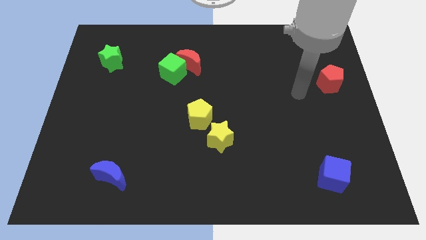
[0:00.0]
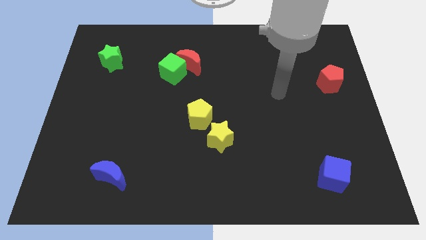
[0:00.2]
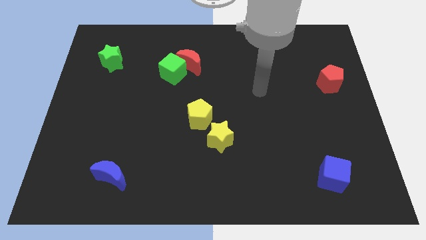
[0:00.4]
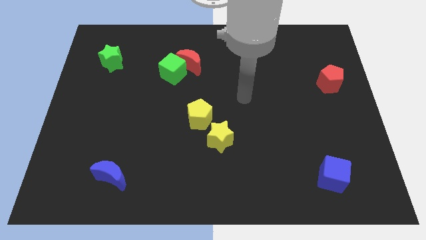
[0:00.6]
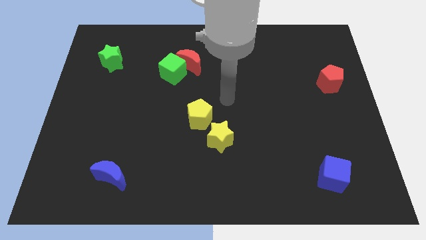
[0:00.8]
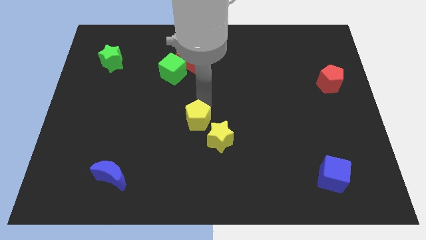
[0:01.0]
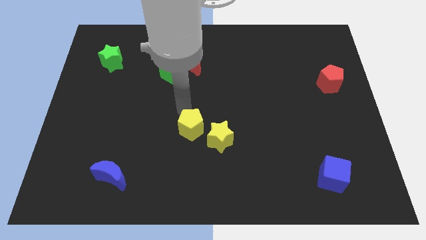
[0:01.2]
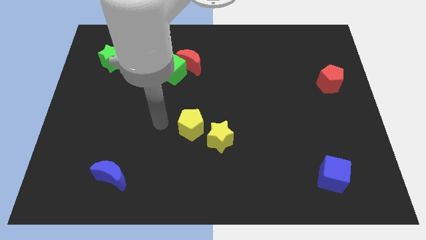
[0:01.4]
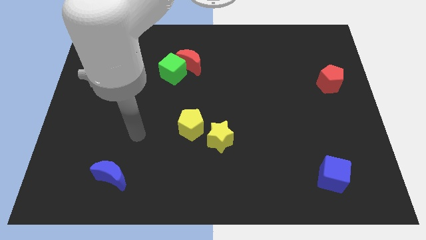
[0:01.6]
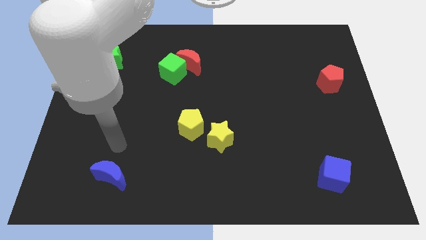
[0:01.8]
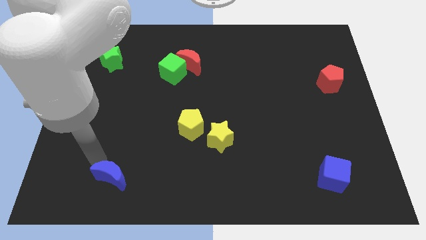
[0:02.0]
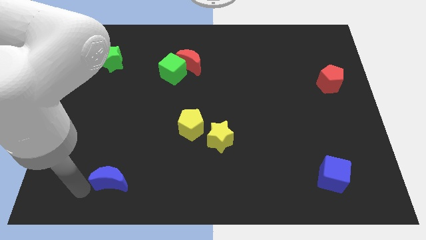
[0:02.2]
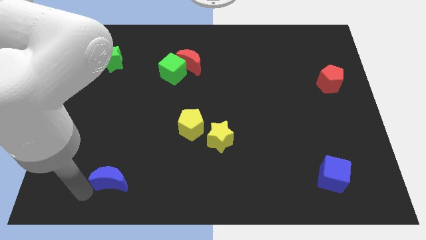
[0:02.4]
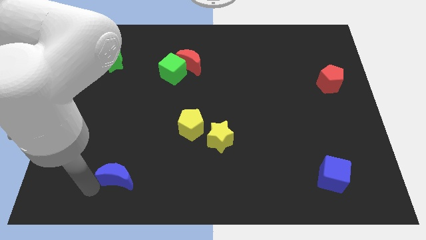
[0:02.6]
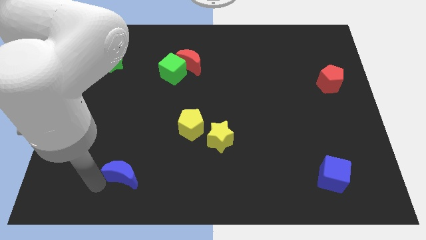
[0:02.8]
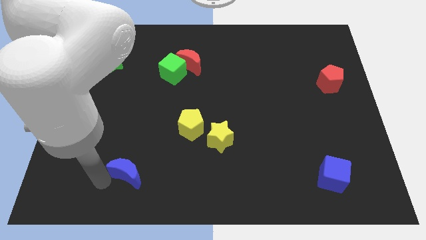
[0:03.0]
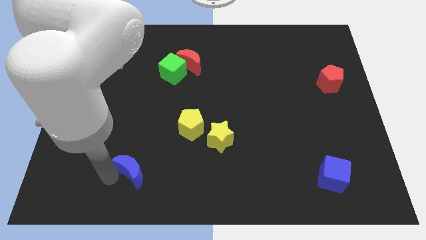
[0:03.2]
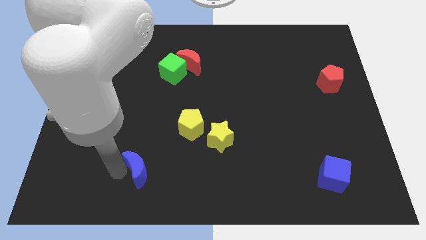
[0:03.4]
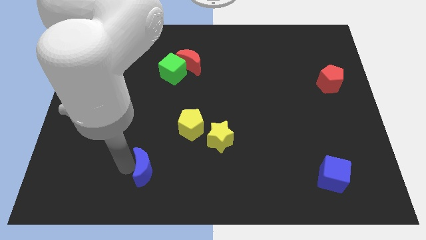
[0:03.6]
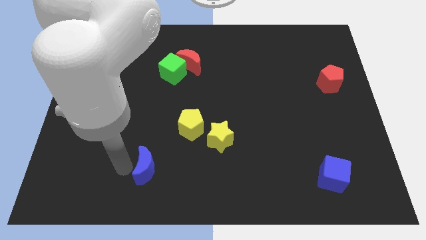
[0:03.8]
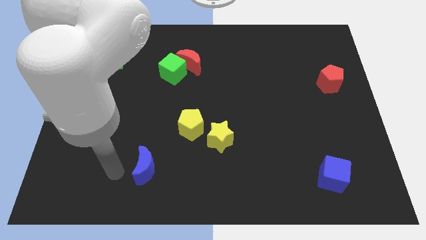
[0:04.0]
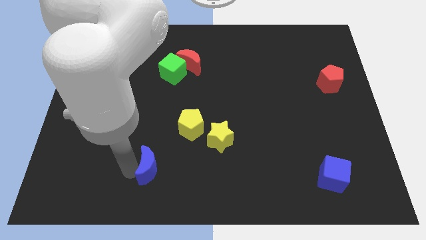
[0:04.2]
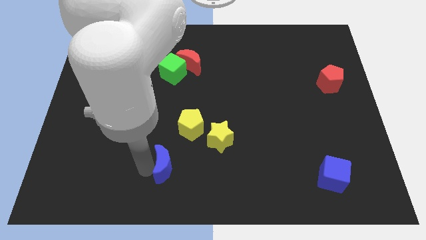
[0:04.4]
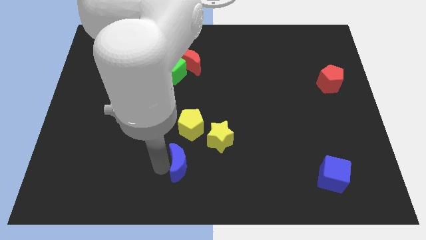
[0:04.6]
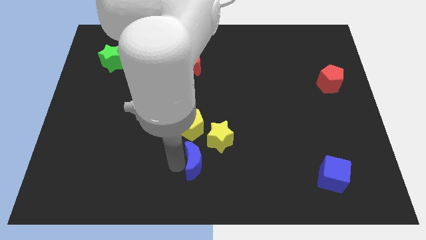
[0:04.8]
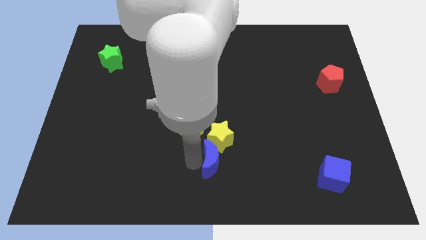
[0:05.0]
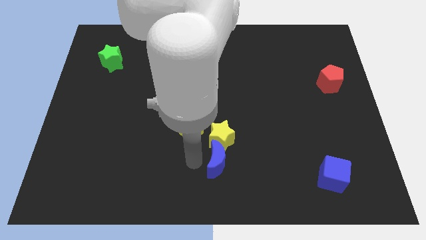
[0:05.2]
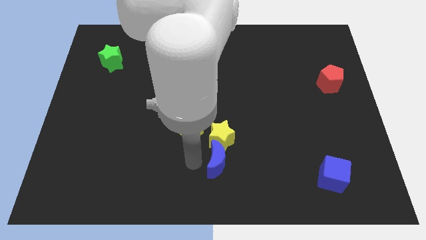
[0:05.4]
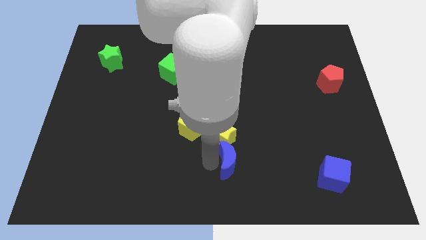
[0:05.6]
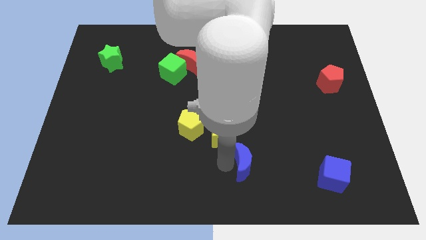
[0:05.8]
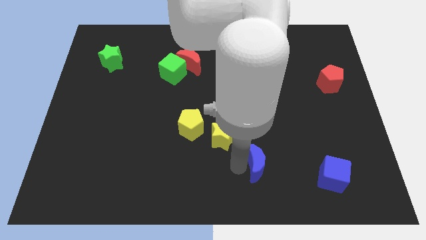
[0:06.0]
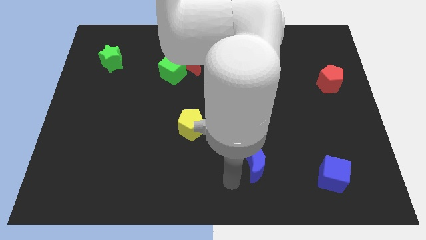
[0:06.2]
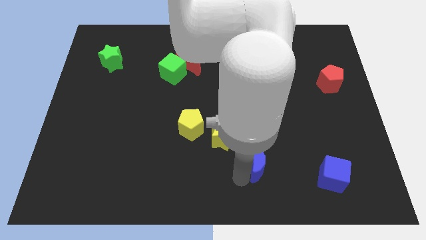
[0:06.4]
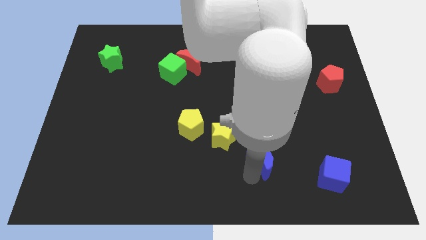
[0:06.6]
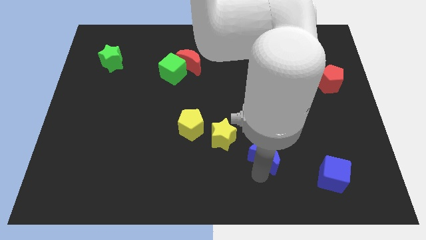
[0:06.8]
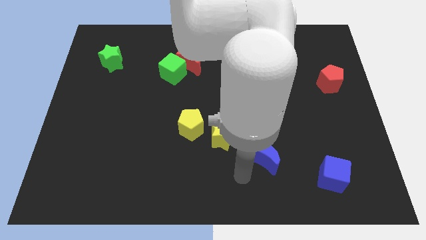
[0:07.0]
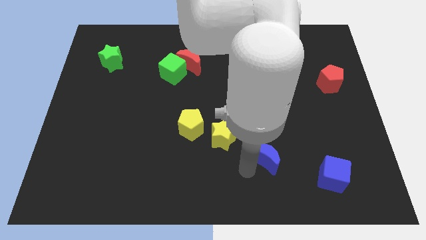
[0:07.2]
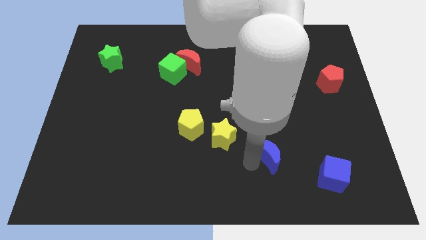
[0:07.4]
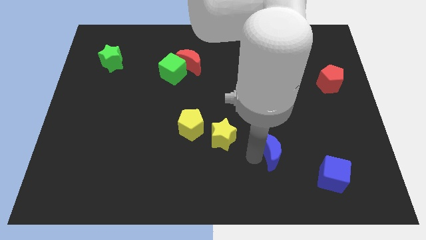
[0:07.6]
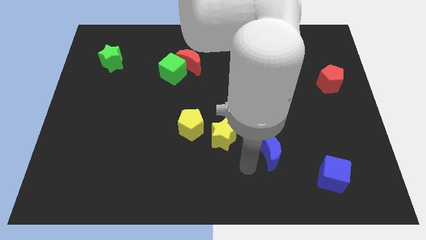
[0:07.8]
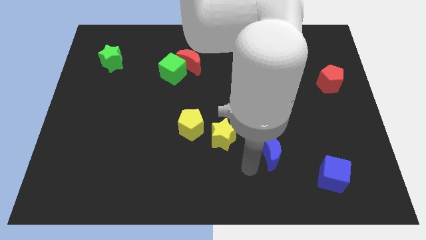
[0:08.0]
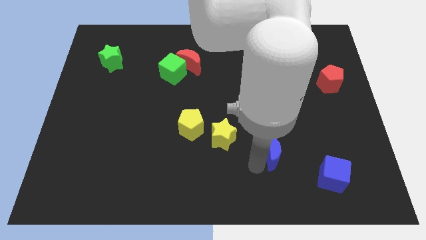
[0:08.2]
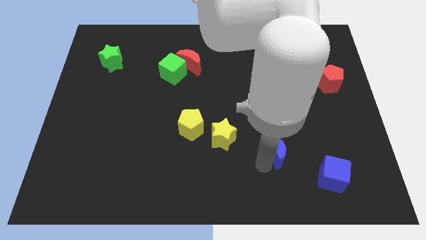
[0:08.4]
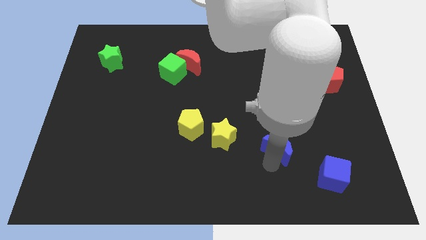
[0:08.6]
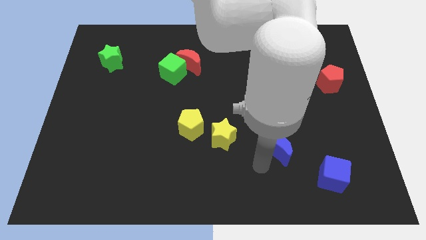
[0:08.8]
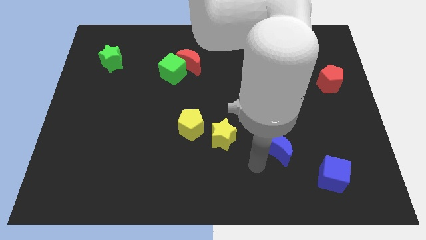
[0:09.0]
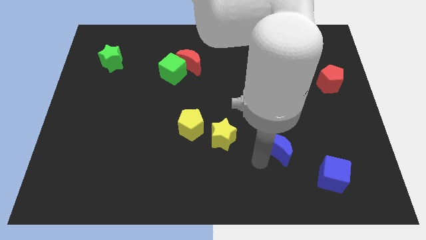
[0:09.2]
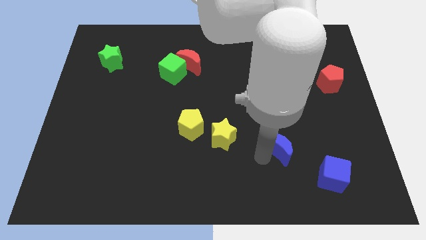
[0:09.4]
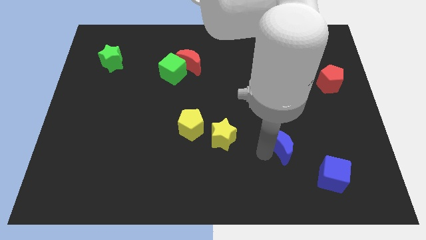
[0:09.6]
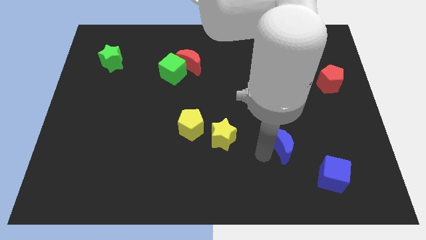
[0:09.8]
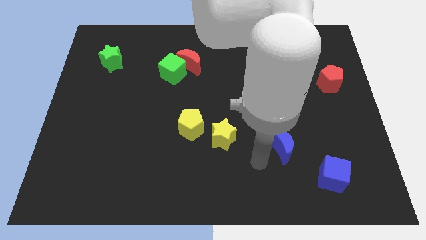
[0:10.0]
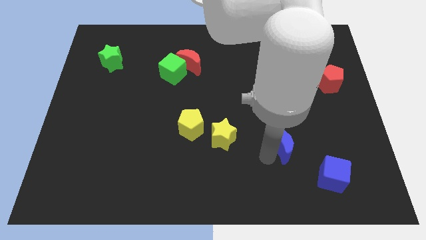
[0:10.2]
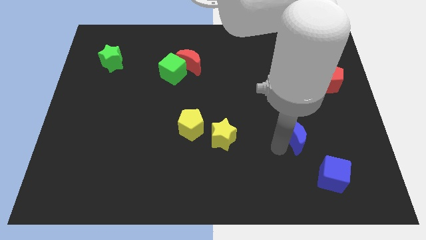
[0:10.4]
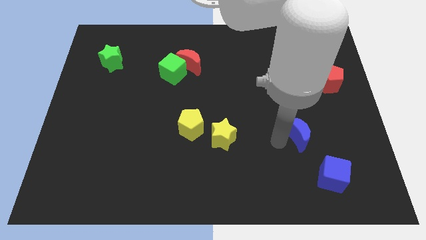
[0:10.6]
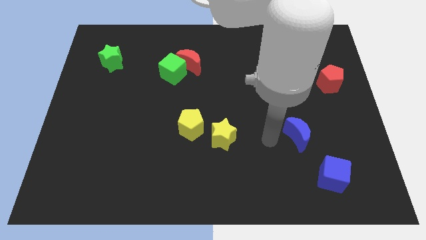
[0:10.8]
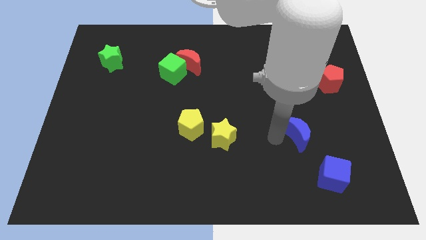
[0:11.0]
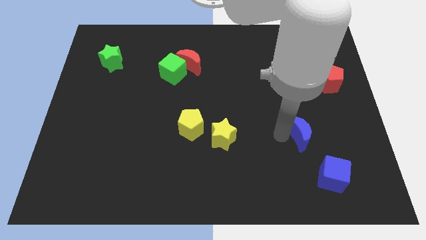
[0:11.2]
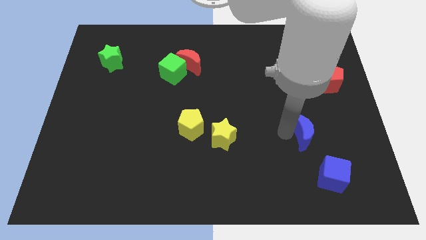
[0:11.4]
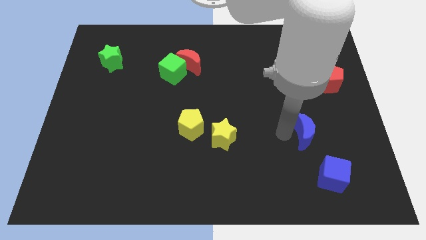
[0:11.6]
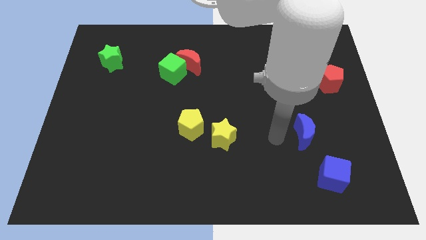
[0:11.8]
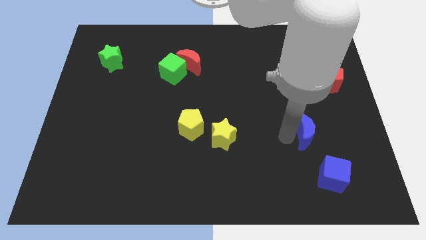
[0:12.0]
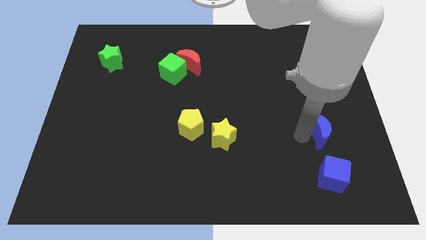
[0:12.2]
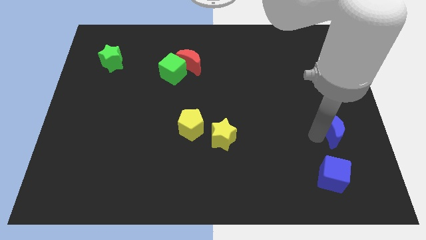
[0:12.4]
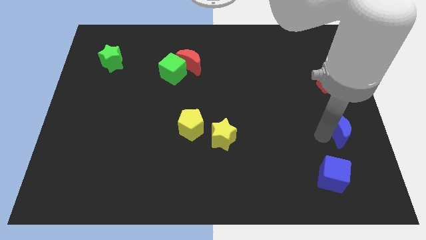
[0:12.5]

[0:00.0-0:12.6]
move the blue moon to the right side
